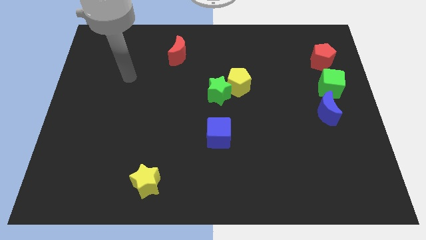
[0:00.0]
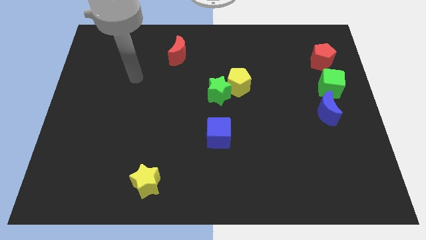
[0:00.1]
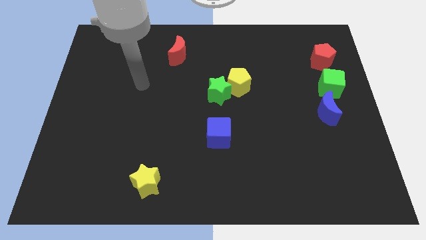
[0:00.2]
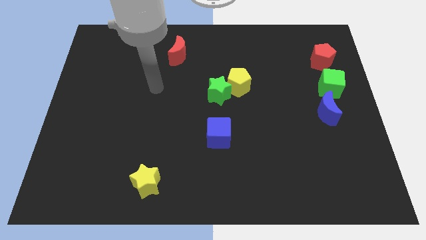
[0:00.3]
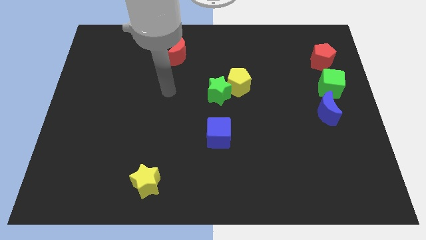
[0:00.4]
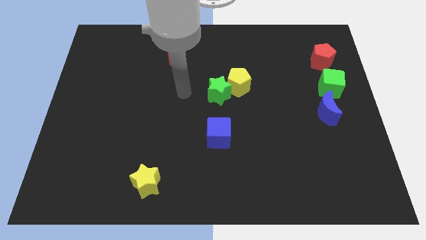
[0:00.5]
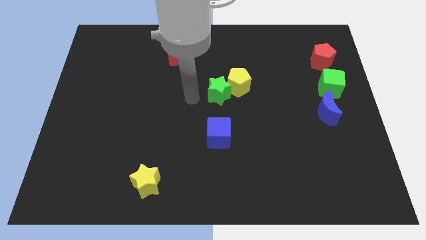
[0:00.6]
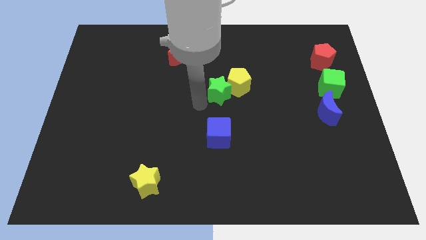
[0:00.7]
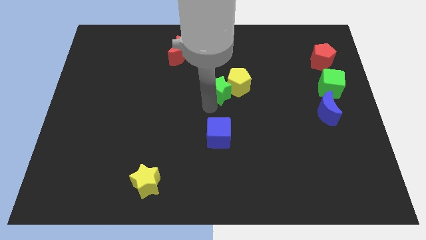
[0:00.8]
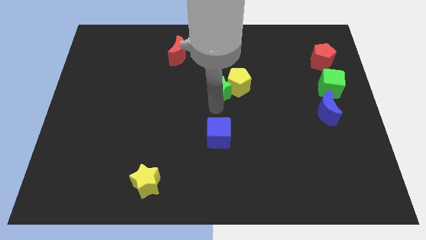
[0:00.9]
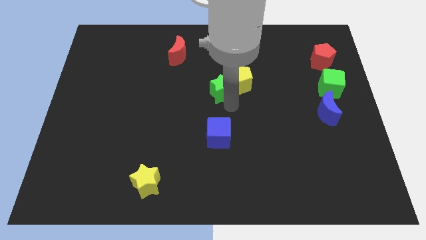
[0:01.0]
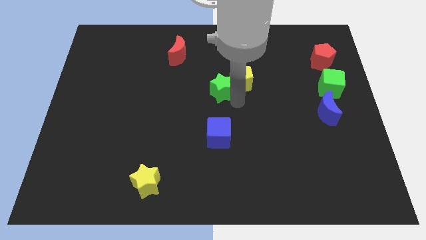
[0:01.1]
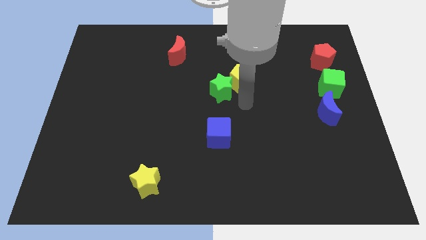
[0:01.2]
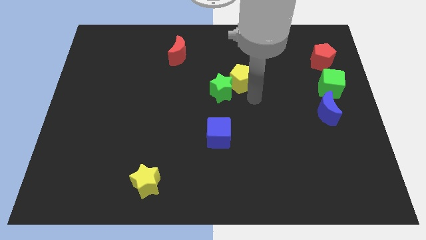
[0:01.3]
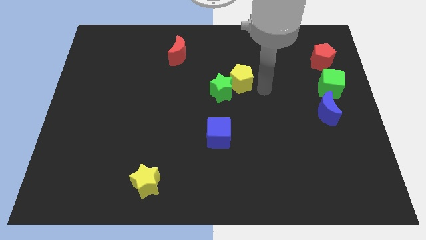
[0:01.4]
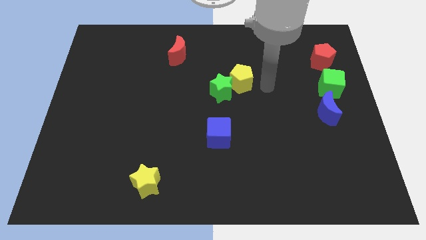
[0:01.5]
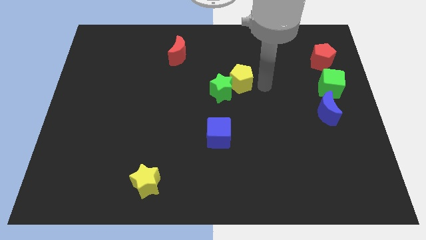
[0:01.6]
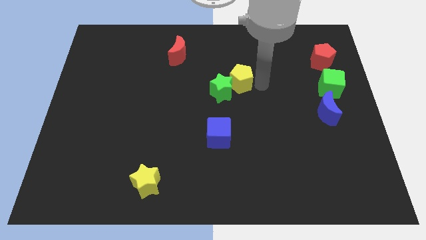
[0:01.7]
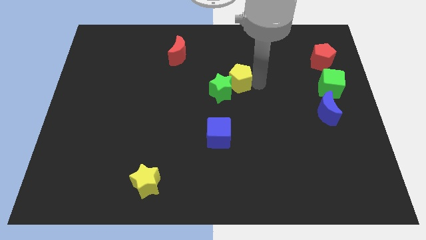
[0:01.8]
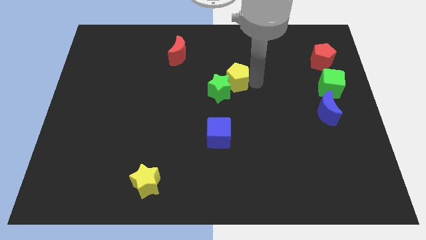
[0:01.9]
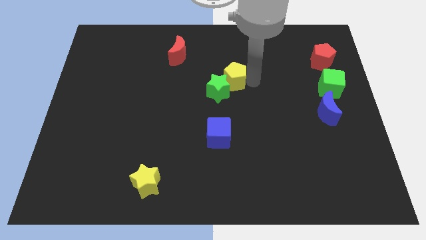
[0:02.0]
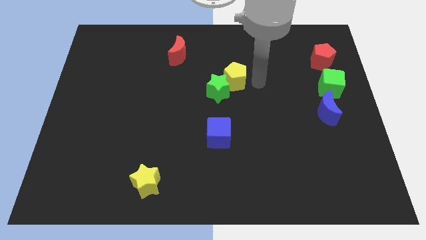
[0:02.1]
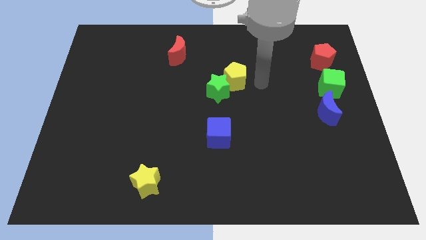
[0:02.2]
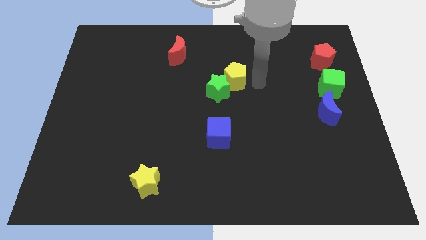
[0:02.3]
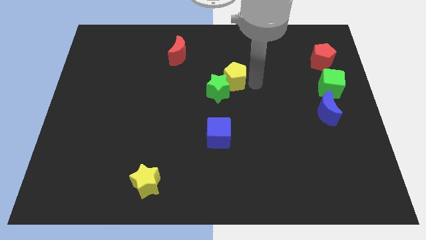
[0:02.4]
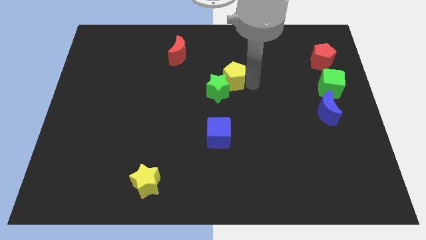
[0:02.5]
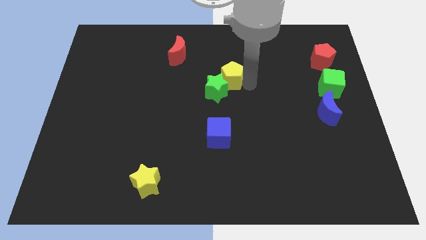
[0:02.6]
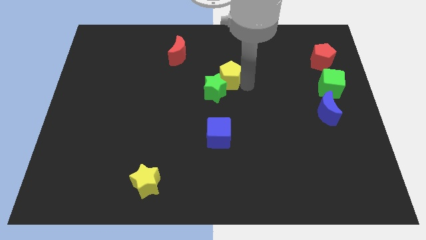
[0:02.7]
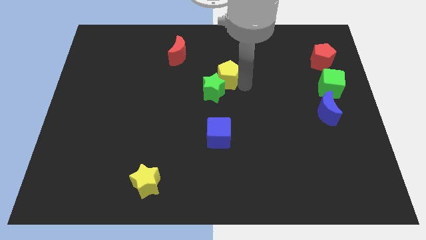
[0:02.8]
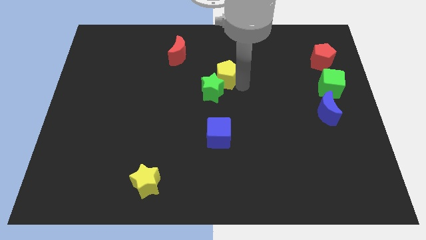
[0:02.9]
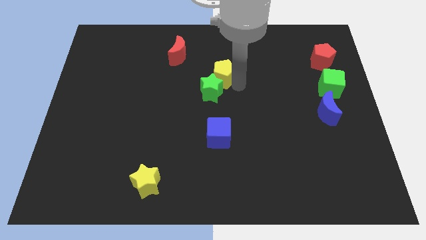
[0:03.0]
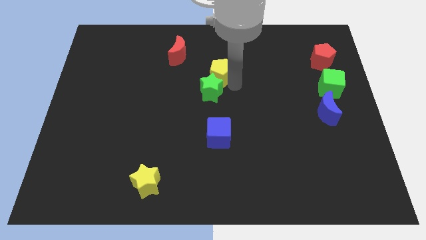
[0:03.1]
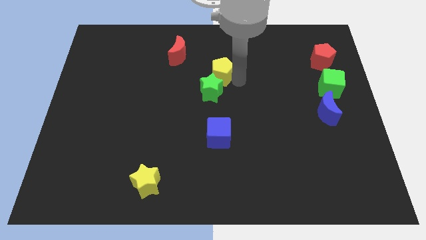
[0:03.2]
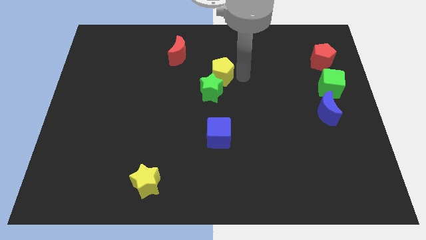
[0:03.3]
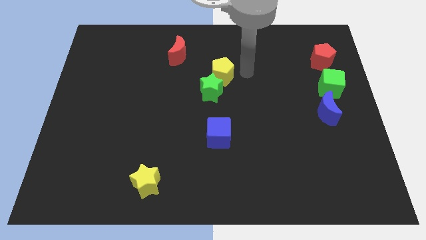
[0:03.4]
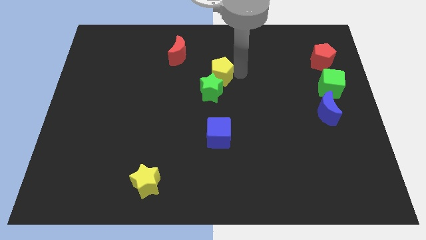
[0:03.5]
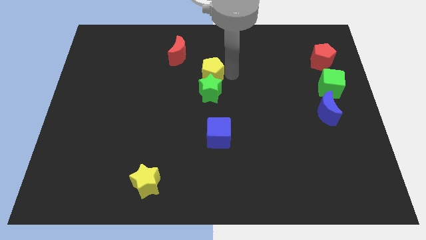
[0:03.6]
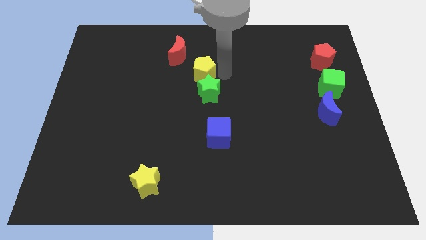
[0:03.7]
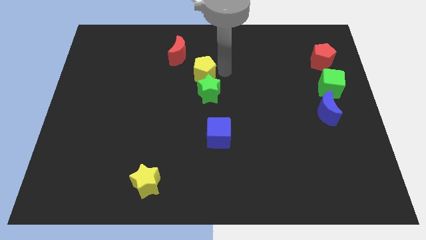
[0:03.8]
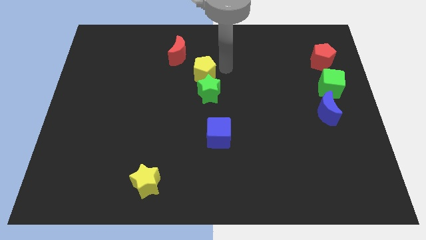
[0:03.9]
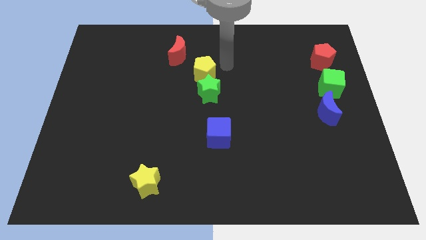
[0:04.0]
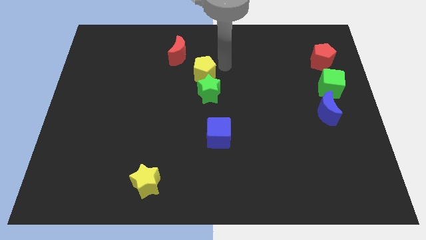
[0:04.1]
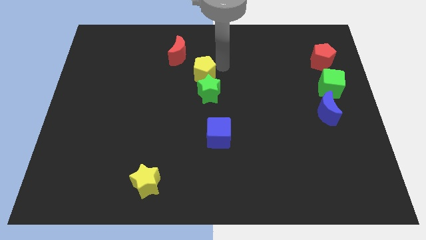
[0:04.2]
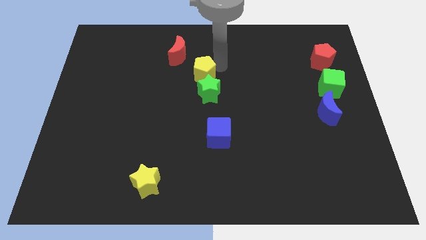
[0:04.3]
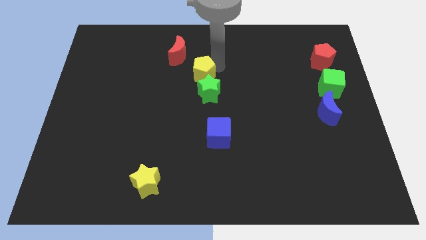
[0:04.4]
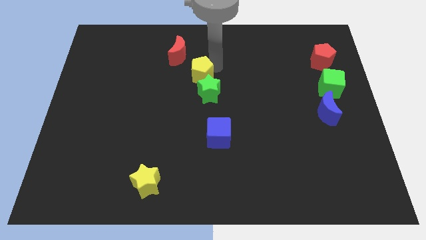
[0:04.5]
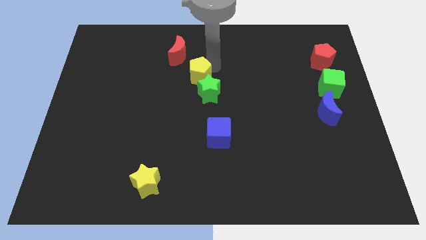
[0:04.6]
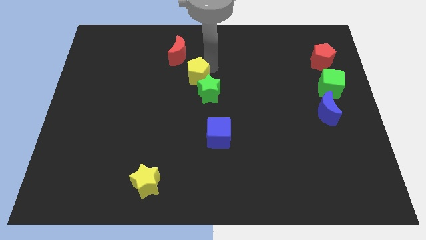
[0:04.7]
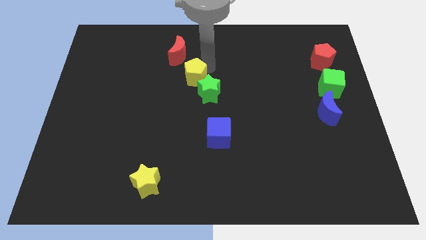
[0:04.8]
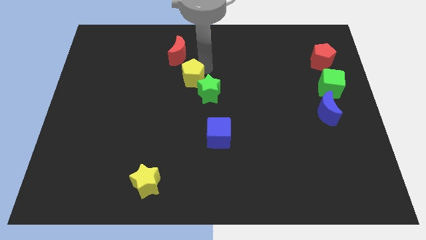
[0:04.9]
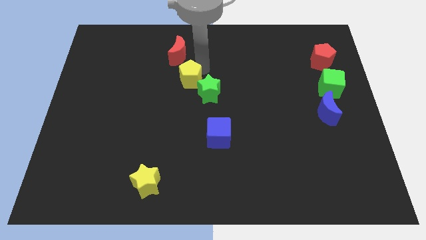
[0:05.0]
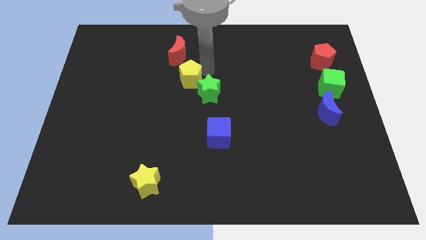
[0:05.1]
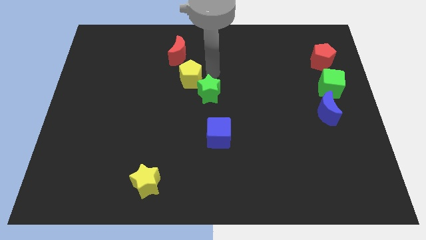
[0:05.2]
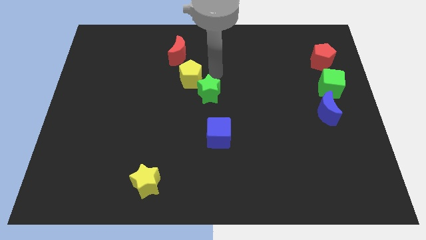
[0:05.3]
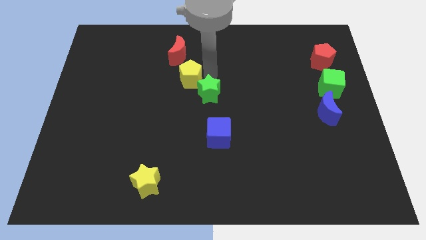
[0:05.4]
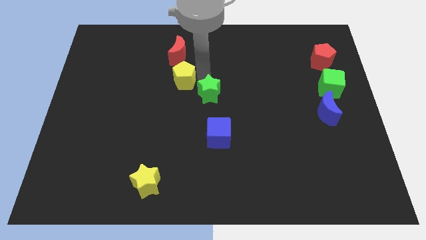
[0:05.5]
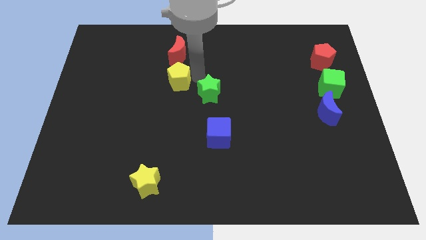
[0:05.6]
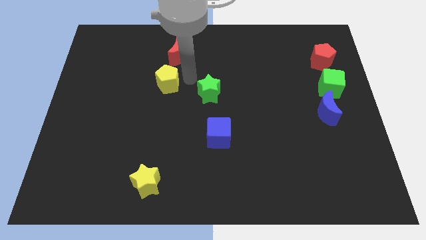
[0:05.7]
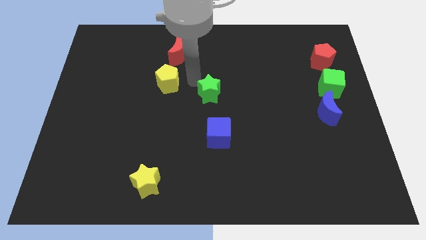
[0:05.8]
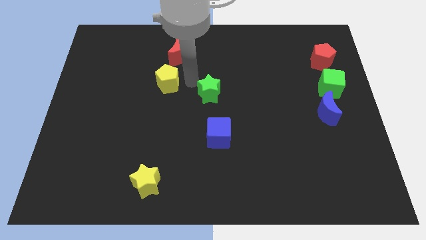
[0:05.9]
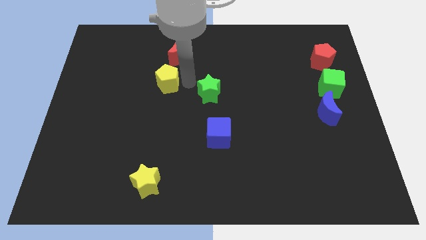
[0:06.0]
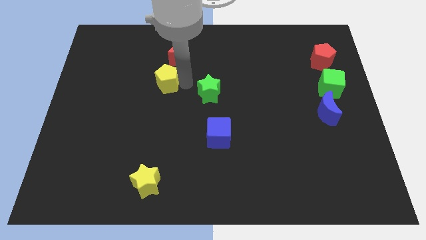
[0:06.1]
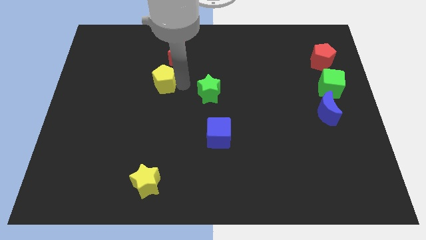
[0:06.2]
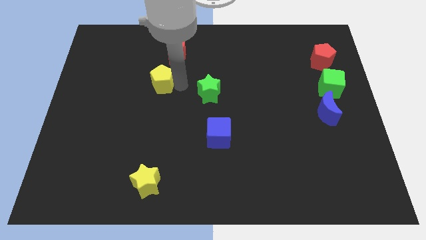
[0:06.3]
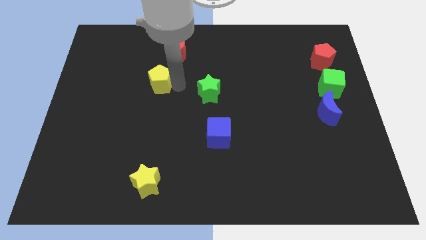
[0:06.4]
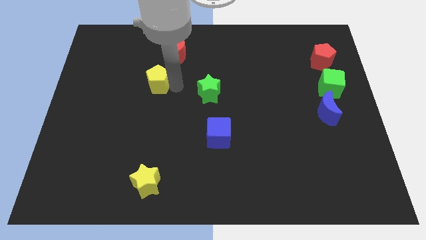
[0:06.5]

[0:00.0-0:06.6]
slide the yellow pentagon left

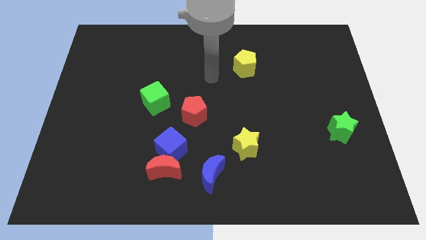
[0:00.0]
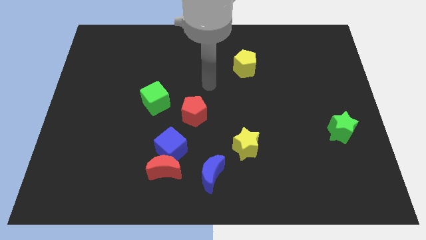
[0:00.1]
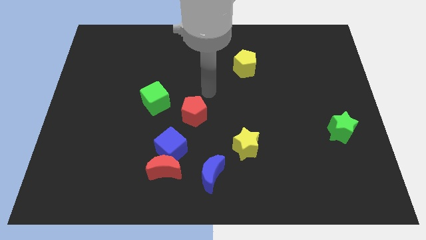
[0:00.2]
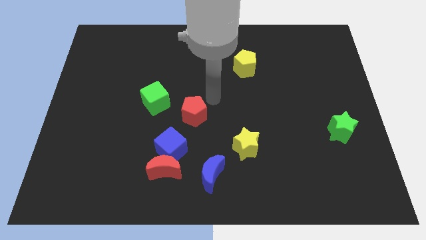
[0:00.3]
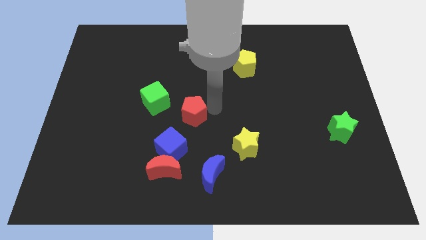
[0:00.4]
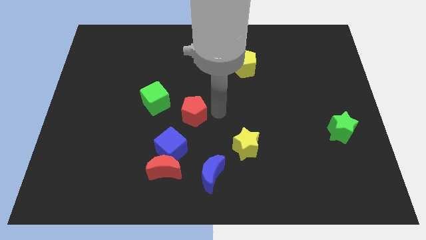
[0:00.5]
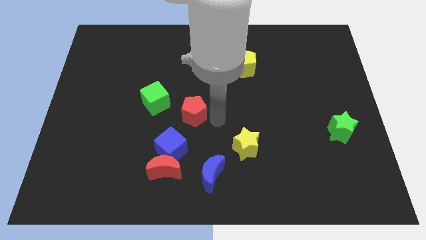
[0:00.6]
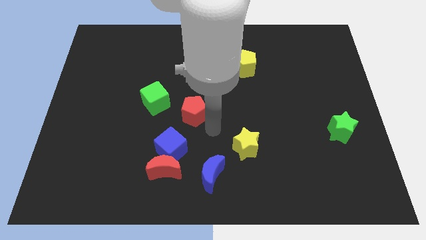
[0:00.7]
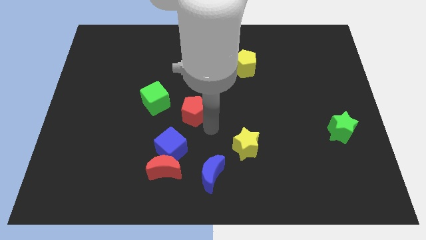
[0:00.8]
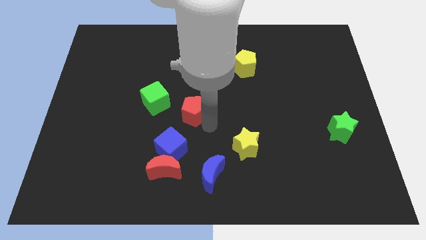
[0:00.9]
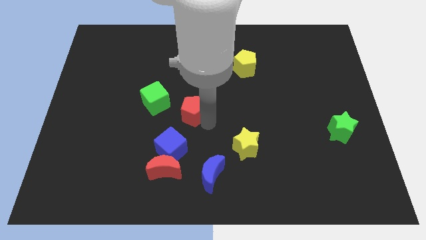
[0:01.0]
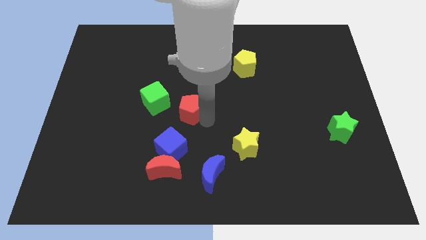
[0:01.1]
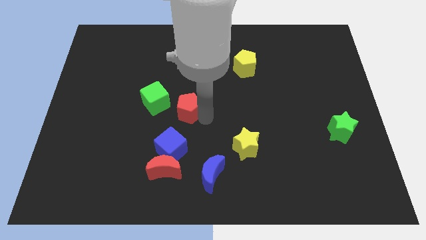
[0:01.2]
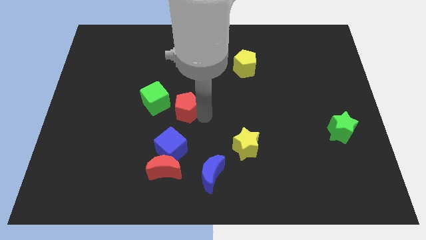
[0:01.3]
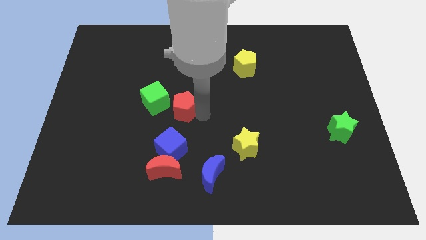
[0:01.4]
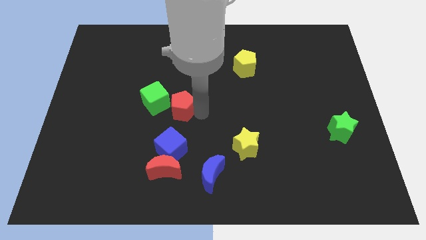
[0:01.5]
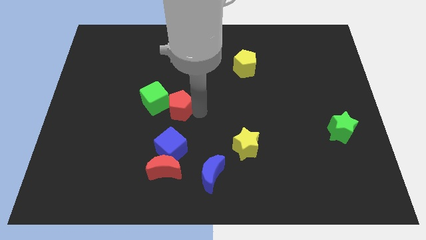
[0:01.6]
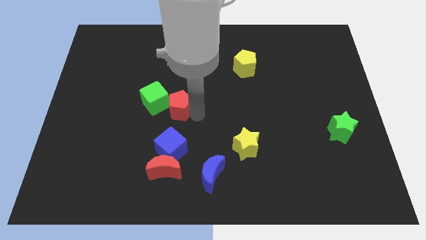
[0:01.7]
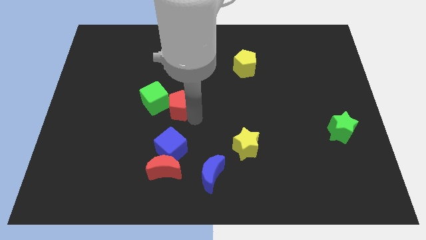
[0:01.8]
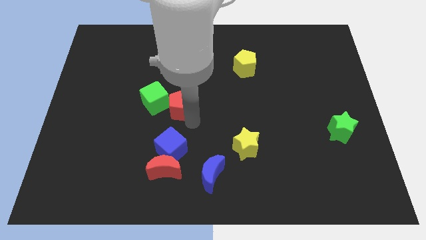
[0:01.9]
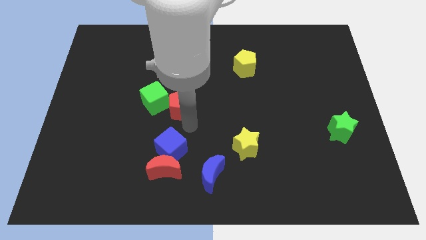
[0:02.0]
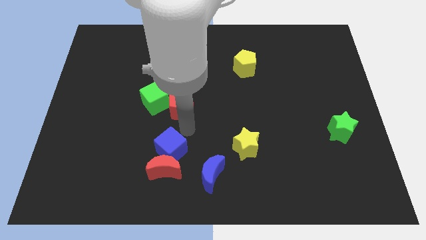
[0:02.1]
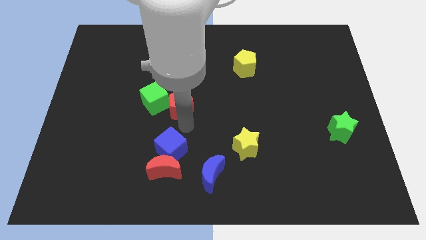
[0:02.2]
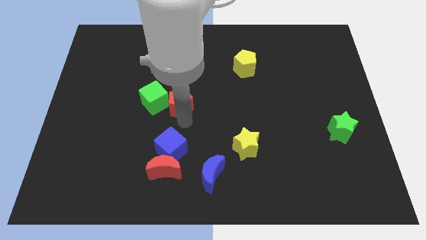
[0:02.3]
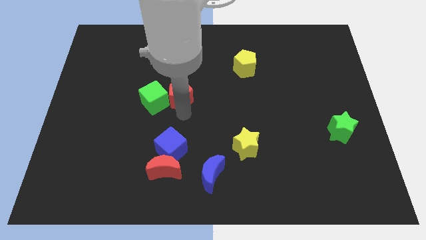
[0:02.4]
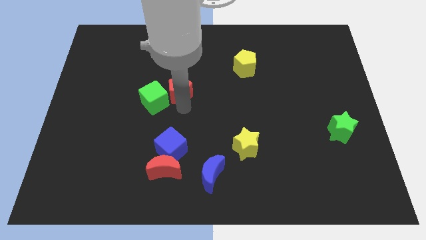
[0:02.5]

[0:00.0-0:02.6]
move the red pentagon a little bit diagonally up and to the left
